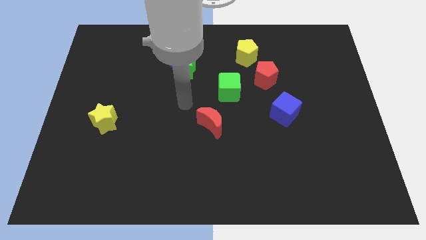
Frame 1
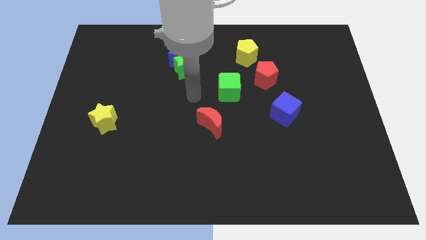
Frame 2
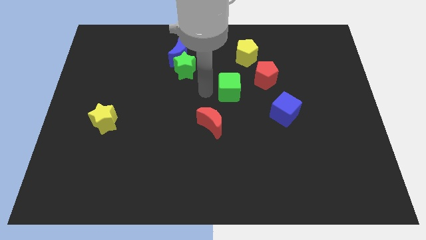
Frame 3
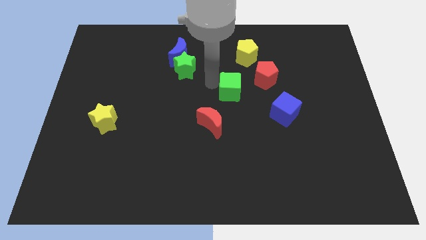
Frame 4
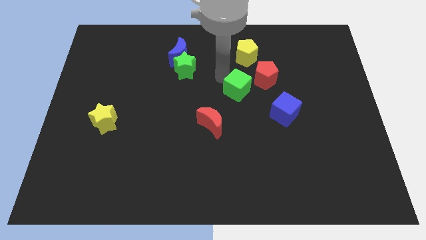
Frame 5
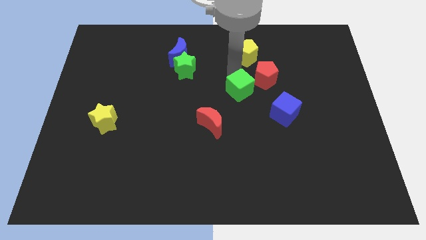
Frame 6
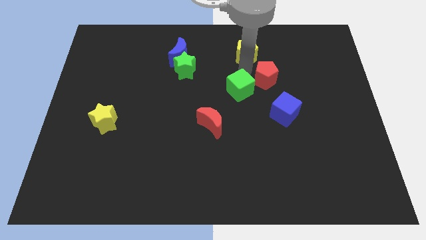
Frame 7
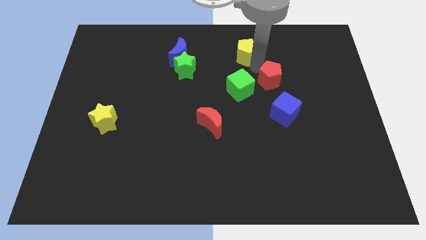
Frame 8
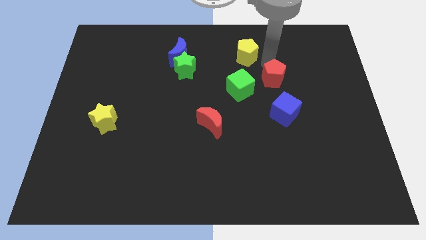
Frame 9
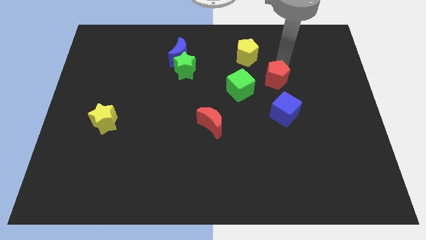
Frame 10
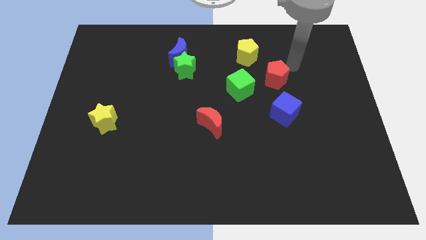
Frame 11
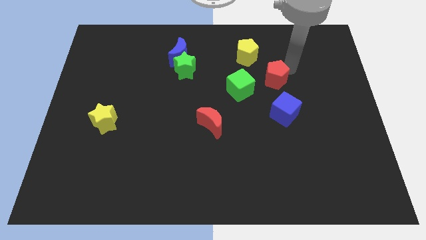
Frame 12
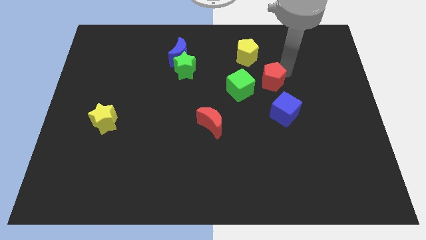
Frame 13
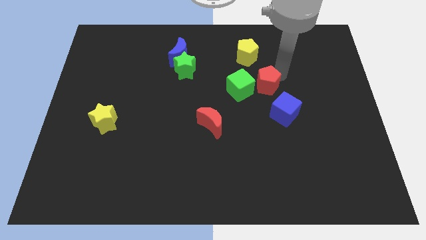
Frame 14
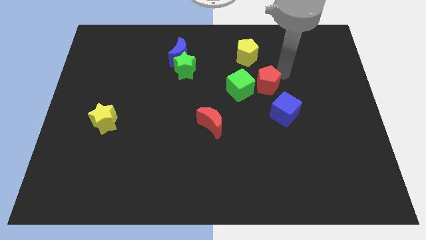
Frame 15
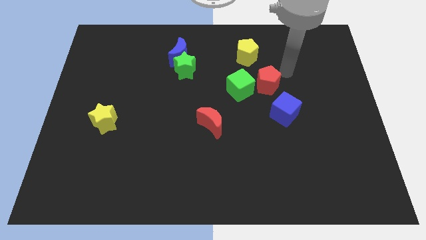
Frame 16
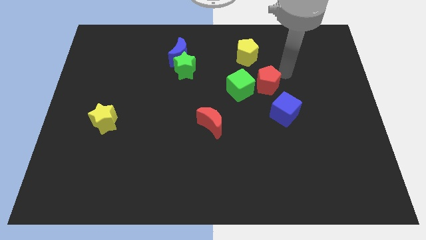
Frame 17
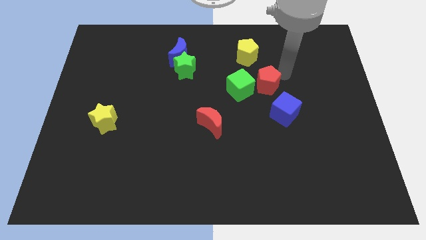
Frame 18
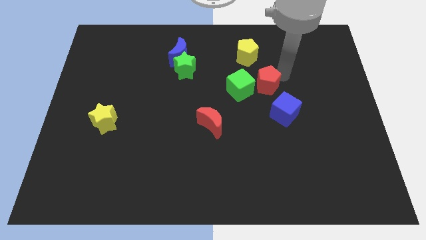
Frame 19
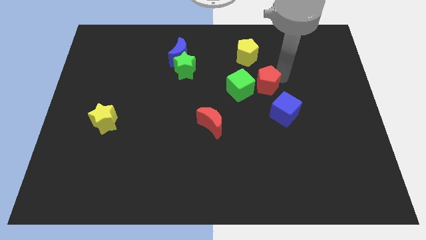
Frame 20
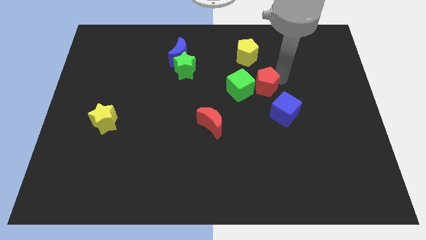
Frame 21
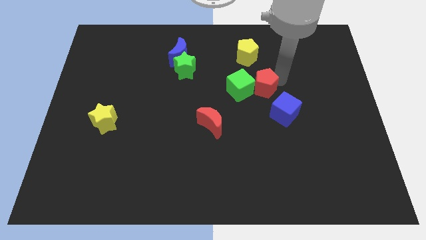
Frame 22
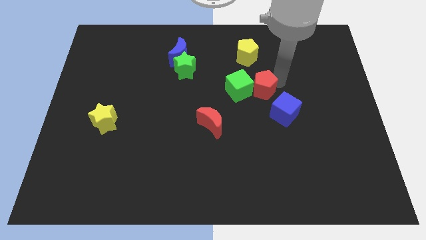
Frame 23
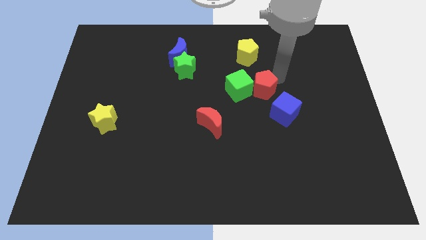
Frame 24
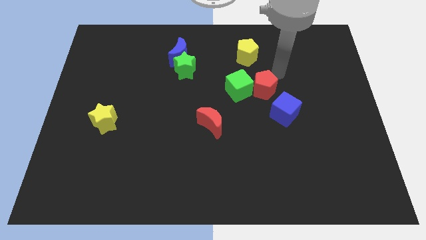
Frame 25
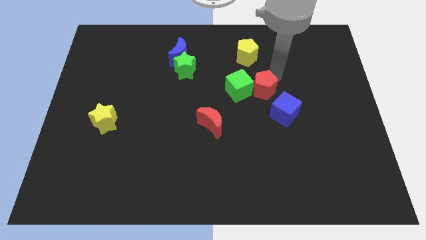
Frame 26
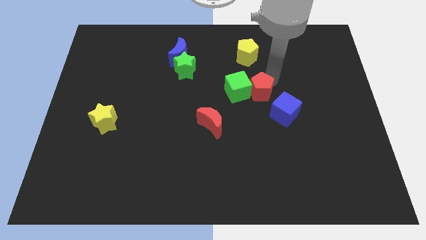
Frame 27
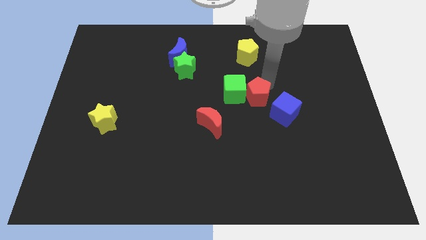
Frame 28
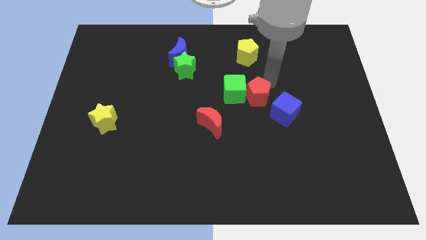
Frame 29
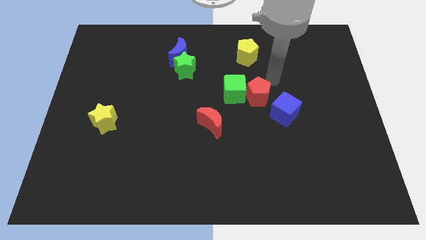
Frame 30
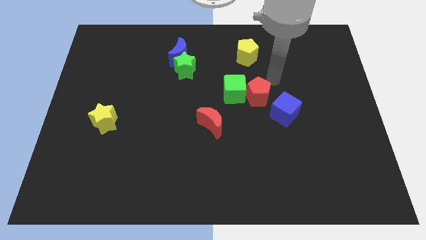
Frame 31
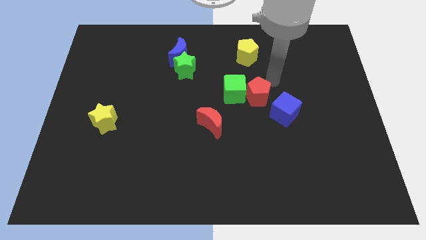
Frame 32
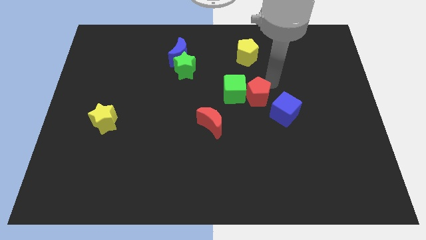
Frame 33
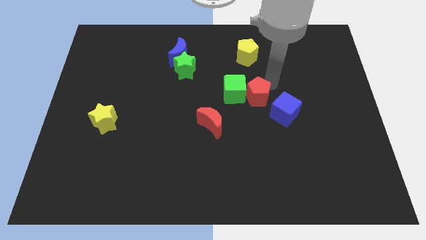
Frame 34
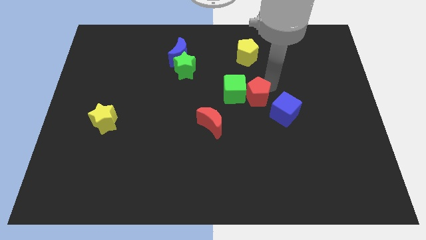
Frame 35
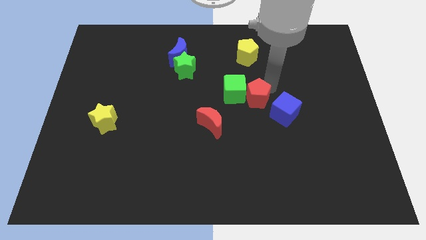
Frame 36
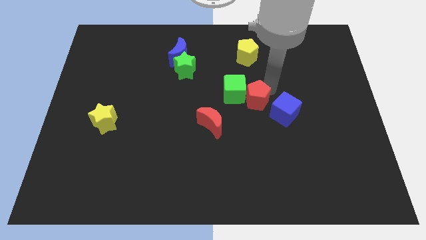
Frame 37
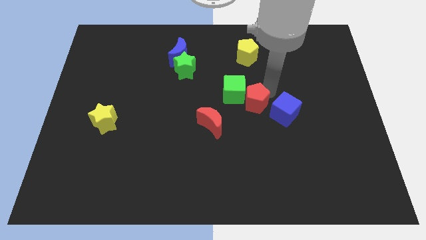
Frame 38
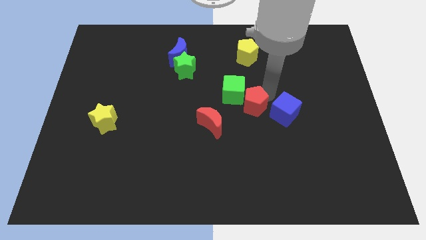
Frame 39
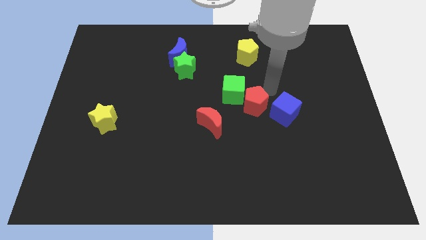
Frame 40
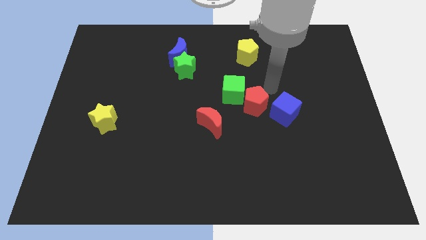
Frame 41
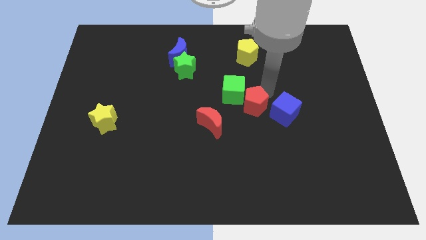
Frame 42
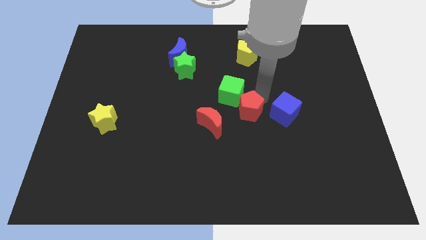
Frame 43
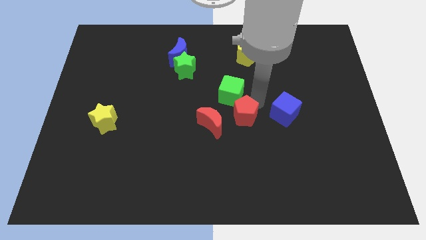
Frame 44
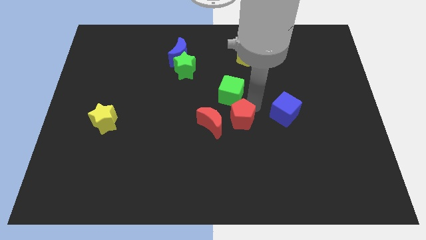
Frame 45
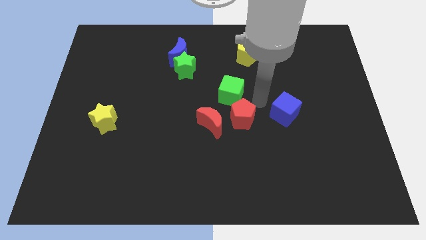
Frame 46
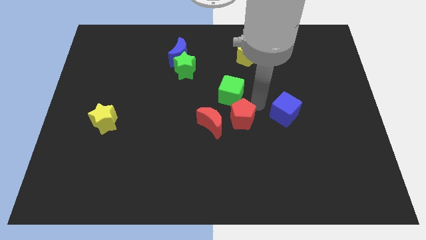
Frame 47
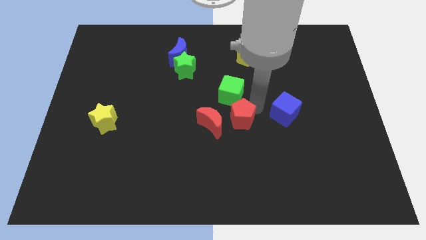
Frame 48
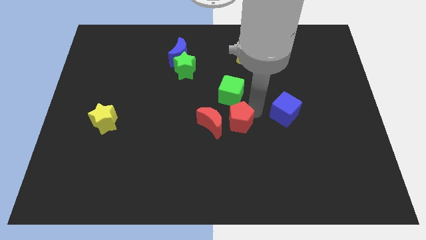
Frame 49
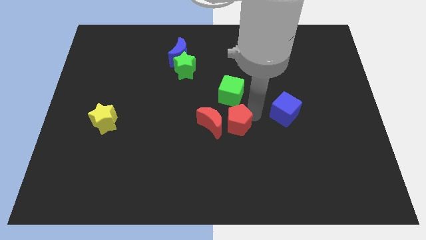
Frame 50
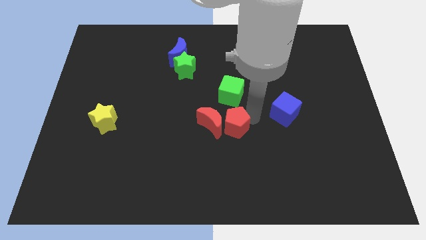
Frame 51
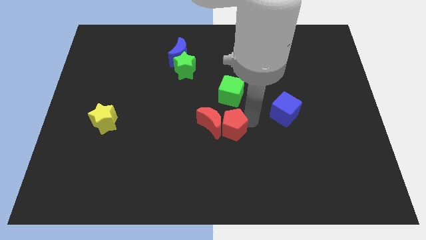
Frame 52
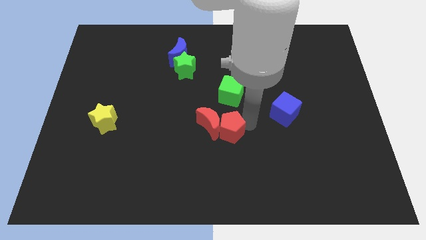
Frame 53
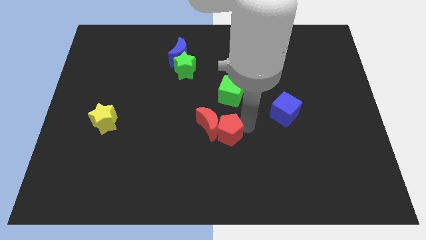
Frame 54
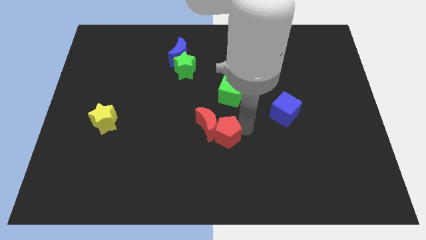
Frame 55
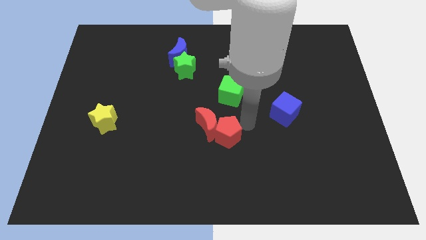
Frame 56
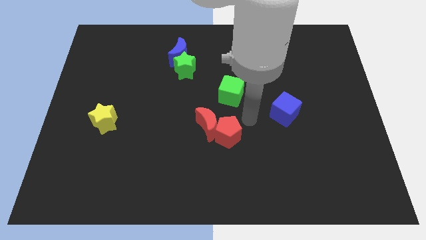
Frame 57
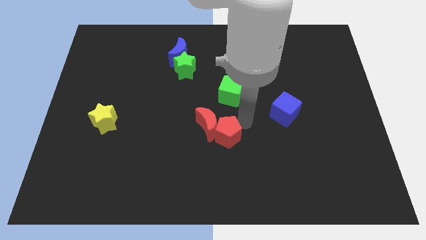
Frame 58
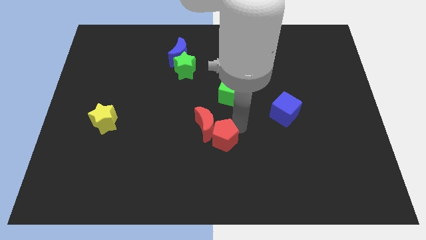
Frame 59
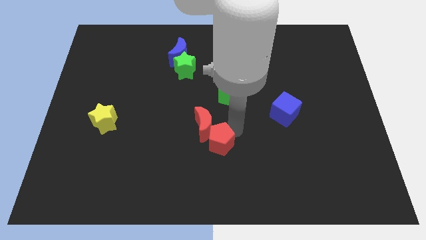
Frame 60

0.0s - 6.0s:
push the red pentagon downwards and to the left diagonally

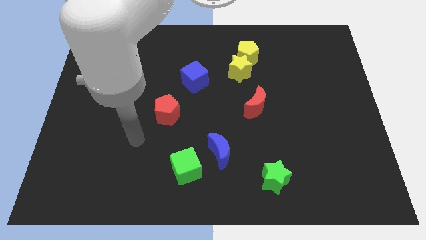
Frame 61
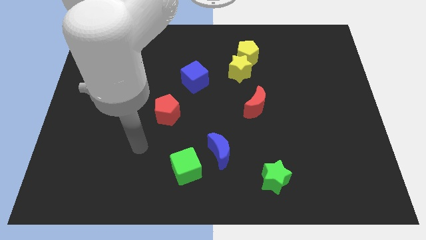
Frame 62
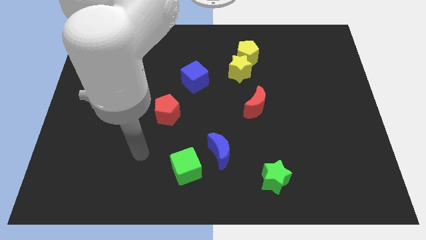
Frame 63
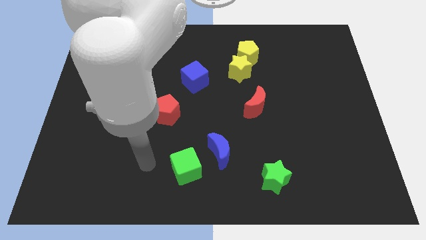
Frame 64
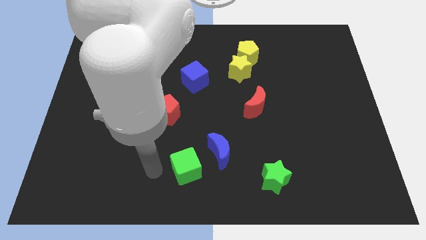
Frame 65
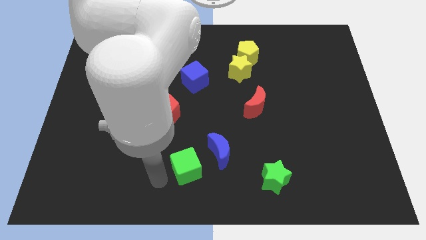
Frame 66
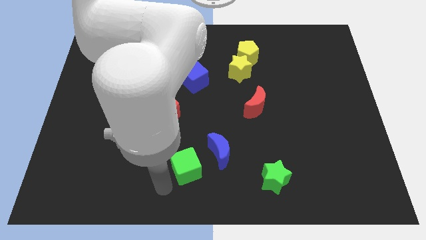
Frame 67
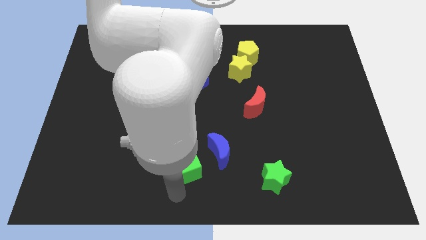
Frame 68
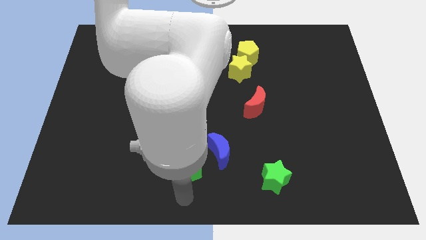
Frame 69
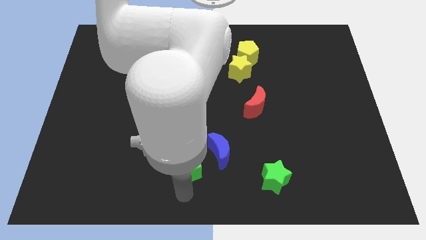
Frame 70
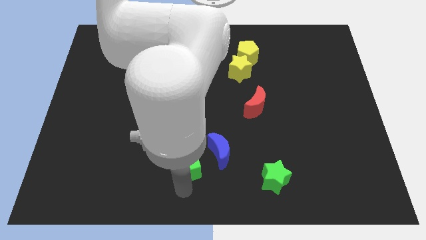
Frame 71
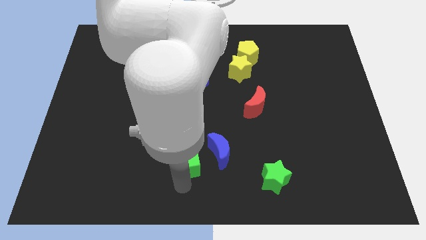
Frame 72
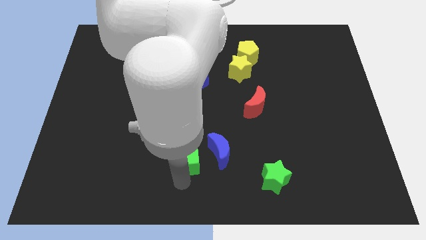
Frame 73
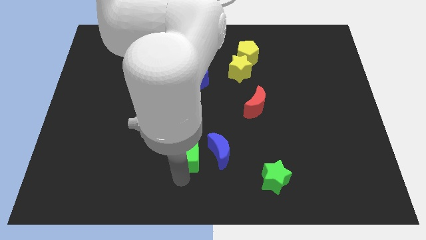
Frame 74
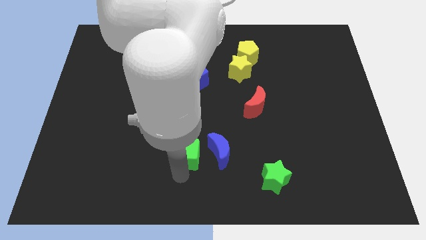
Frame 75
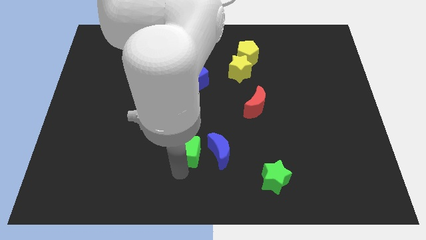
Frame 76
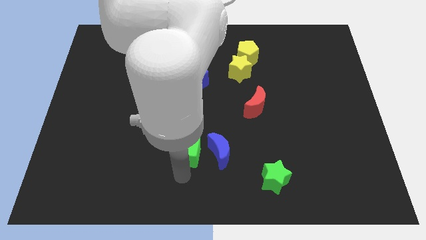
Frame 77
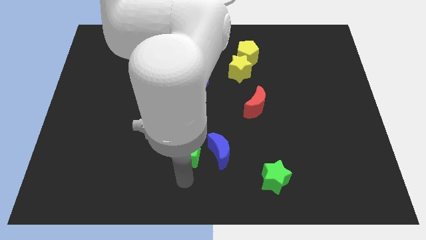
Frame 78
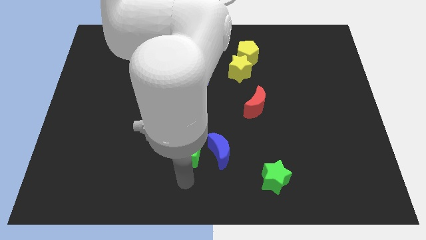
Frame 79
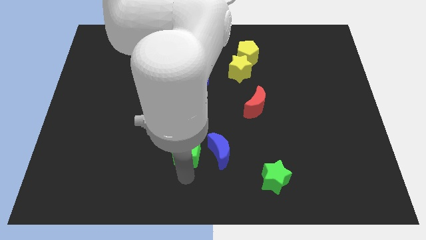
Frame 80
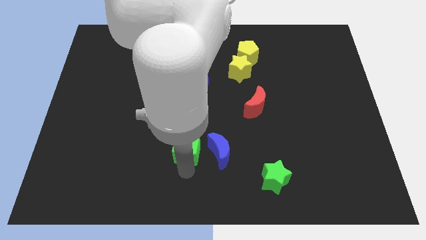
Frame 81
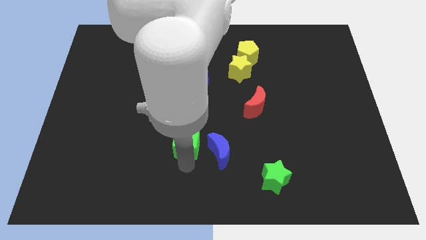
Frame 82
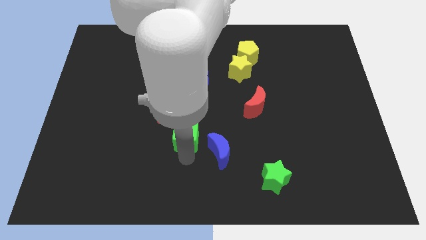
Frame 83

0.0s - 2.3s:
slightly move the green cube up
